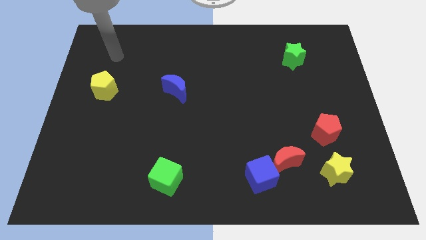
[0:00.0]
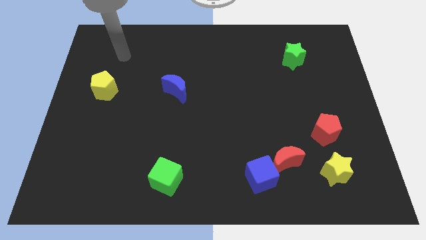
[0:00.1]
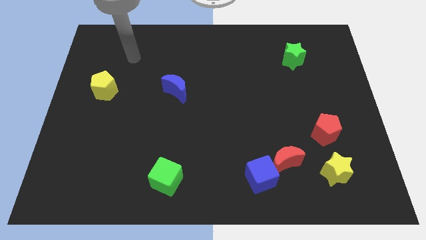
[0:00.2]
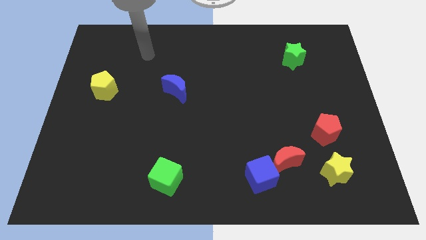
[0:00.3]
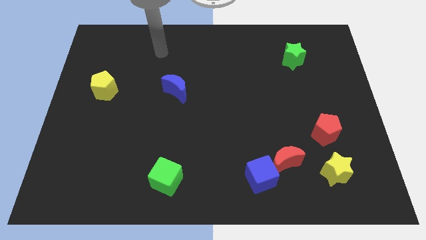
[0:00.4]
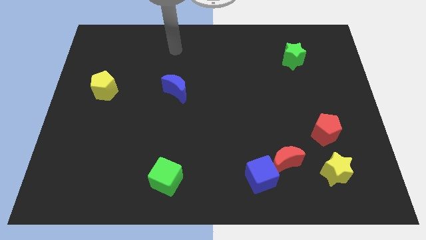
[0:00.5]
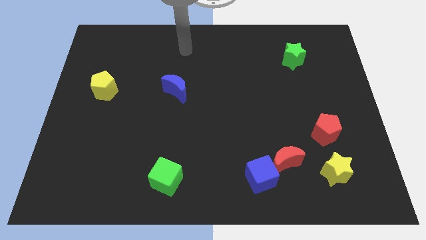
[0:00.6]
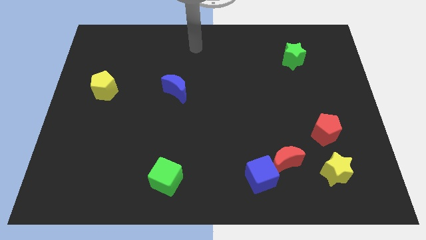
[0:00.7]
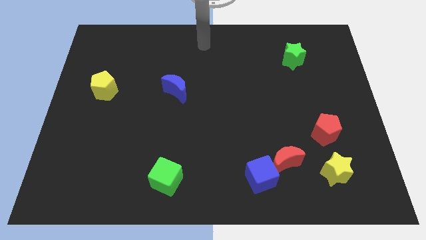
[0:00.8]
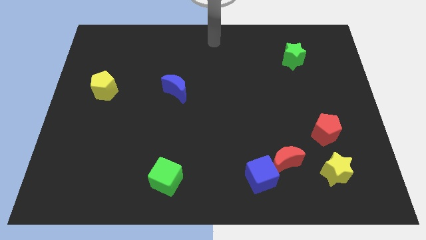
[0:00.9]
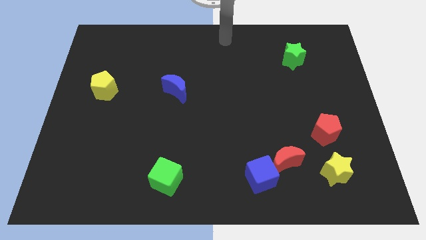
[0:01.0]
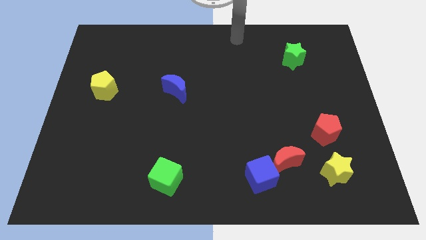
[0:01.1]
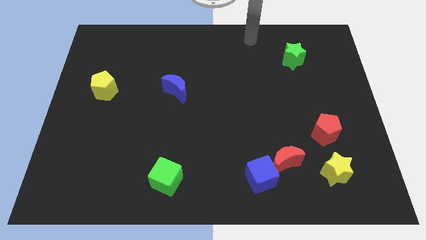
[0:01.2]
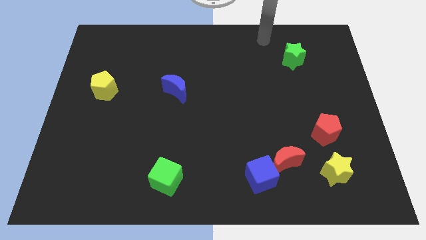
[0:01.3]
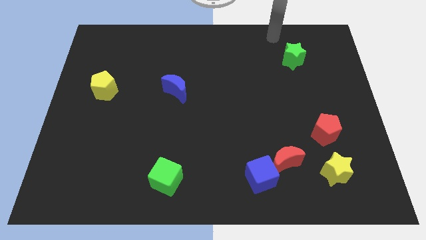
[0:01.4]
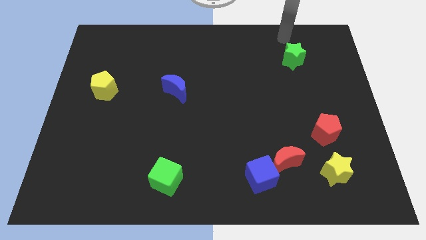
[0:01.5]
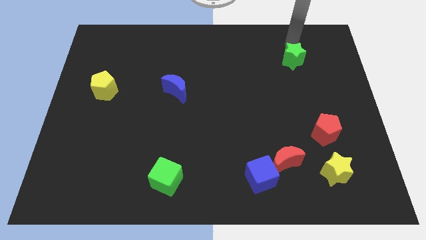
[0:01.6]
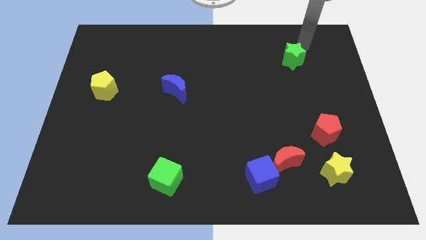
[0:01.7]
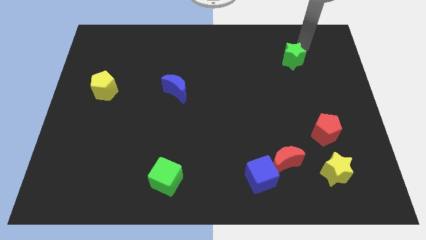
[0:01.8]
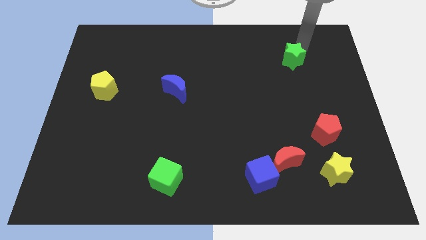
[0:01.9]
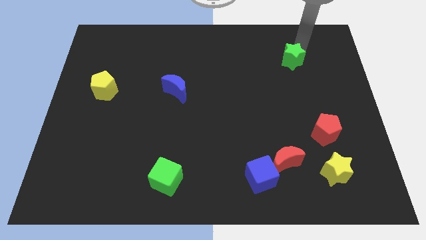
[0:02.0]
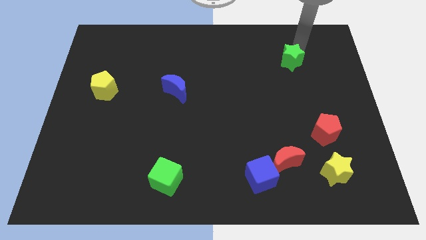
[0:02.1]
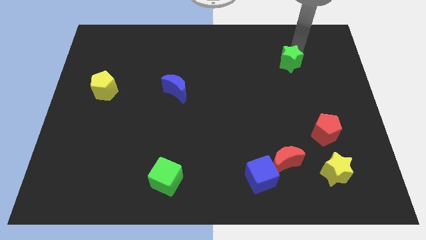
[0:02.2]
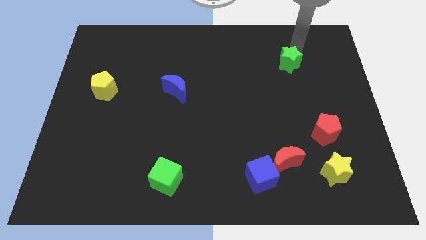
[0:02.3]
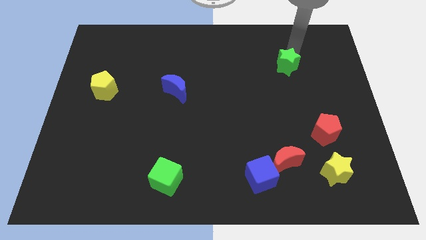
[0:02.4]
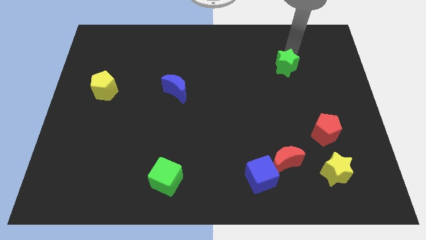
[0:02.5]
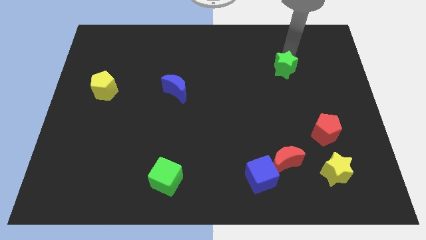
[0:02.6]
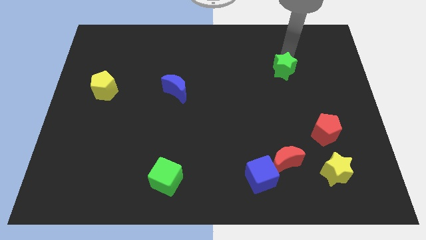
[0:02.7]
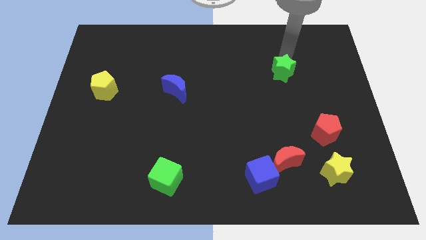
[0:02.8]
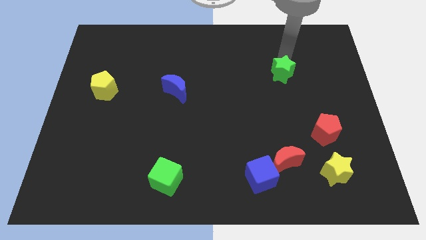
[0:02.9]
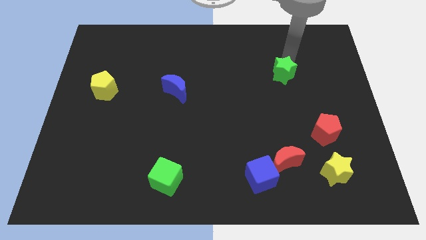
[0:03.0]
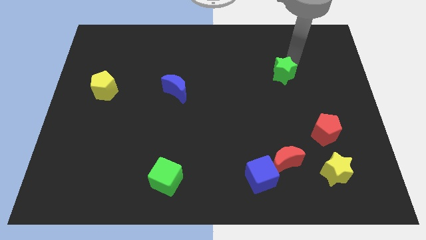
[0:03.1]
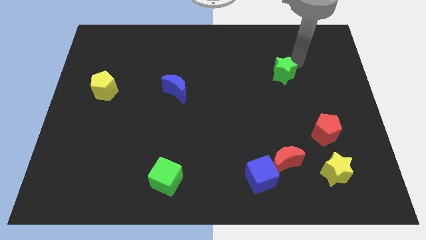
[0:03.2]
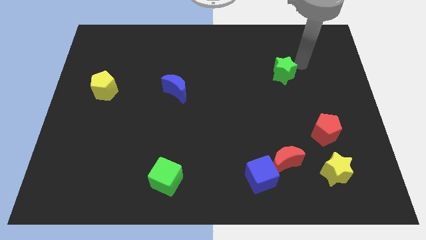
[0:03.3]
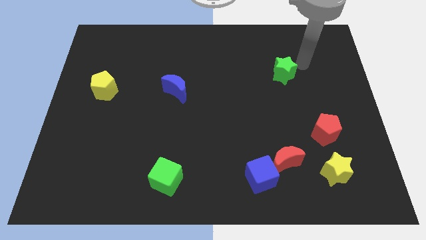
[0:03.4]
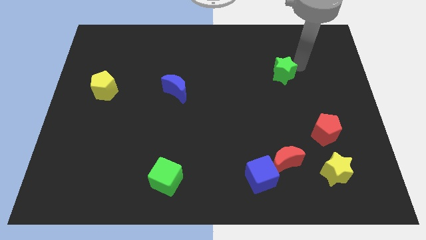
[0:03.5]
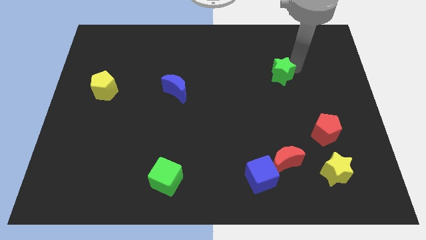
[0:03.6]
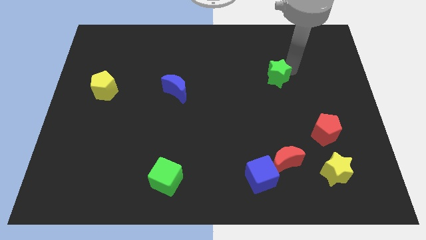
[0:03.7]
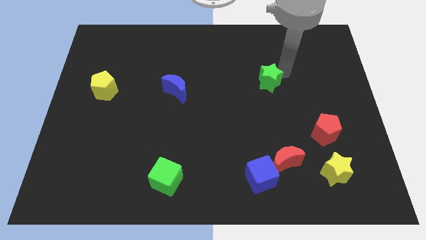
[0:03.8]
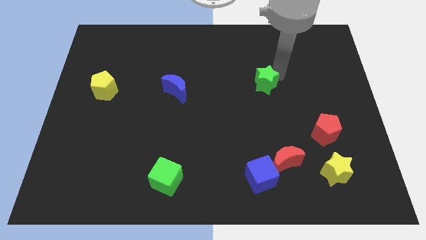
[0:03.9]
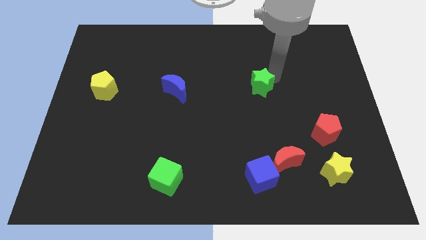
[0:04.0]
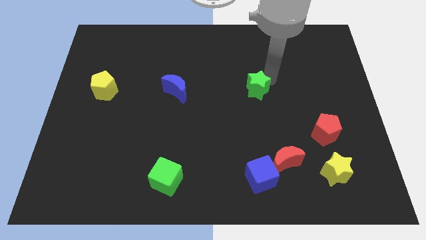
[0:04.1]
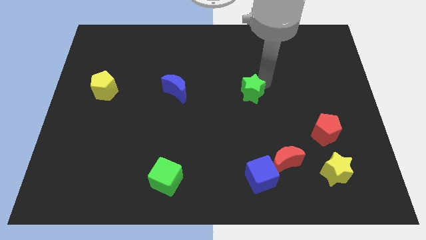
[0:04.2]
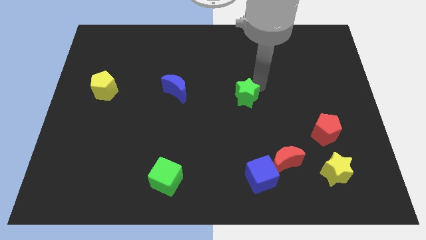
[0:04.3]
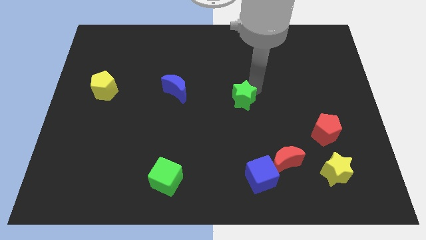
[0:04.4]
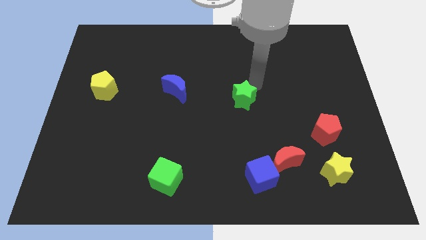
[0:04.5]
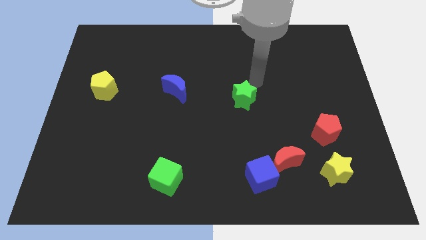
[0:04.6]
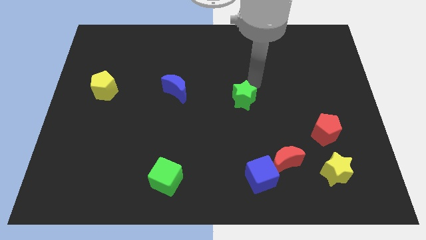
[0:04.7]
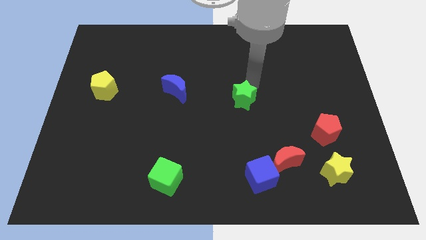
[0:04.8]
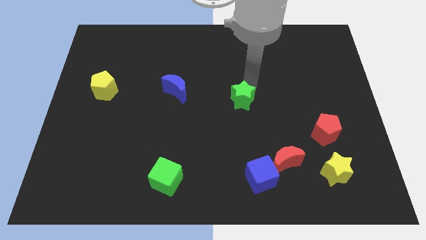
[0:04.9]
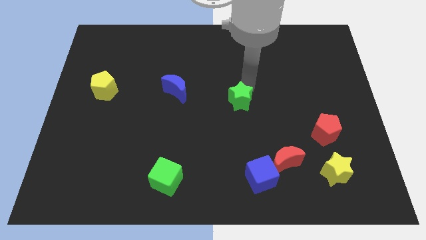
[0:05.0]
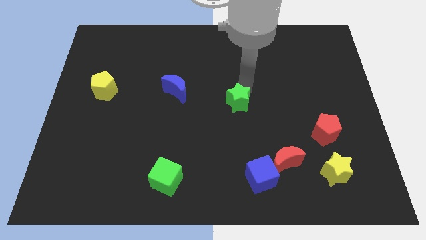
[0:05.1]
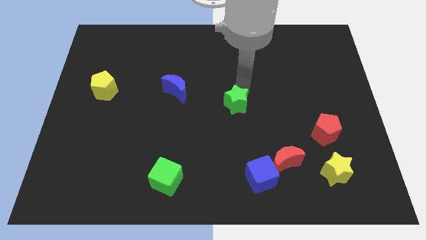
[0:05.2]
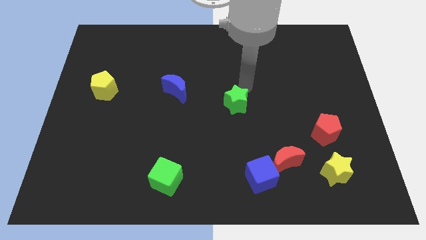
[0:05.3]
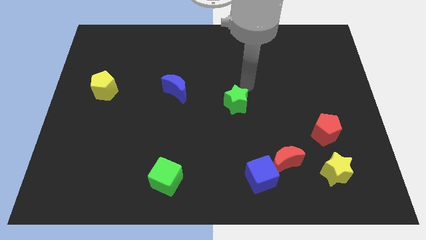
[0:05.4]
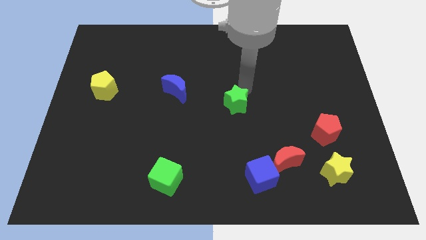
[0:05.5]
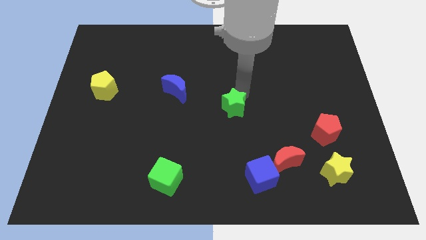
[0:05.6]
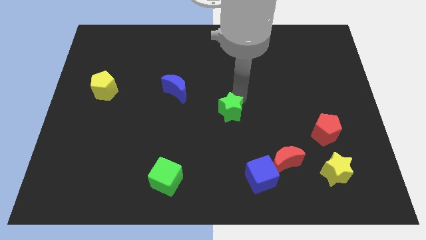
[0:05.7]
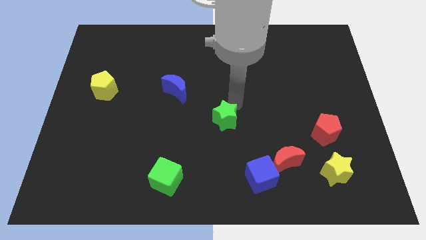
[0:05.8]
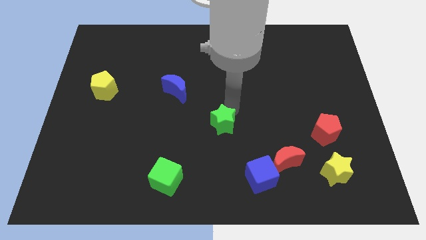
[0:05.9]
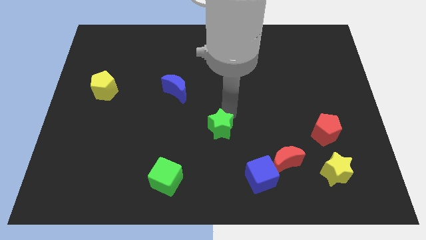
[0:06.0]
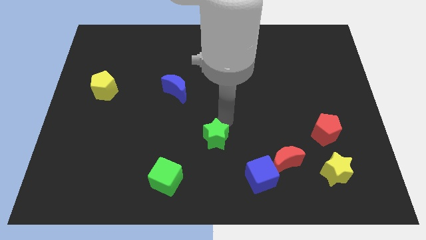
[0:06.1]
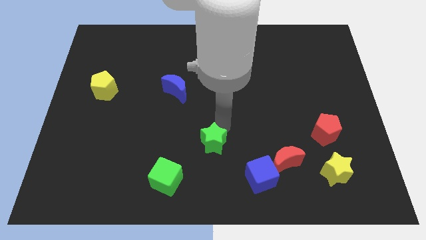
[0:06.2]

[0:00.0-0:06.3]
put the green star to the top right side of the green cube

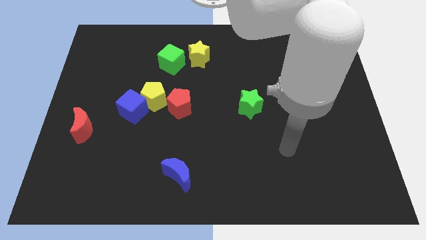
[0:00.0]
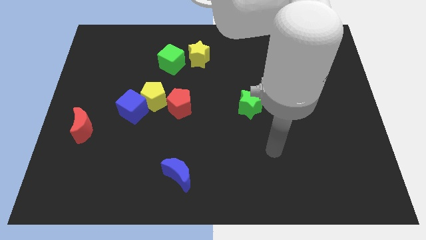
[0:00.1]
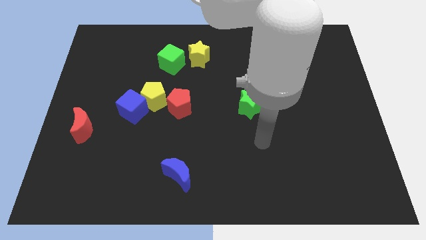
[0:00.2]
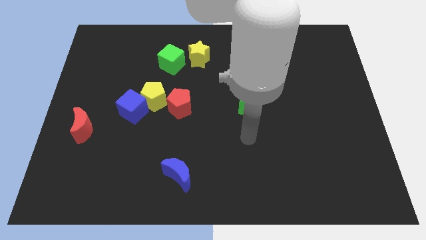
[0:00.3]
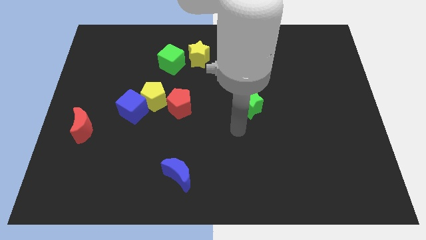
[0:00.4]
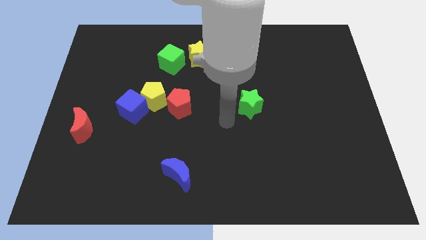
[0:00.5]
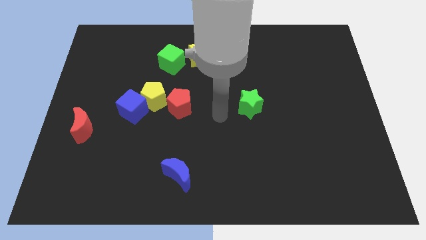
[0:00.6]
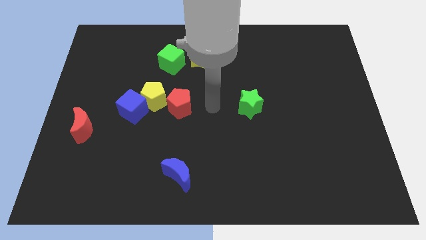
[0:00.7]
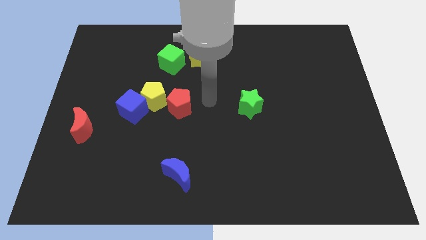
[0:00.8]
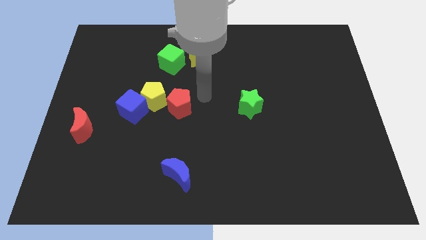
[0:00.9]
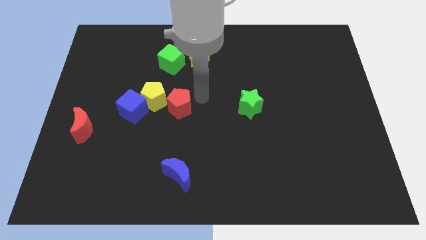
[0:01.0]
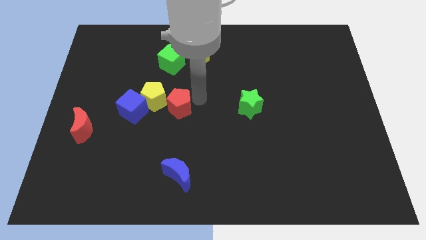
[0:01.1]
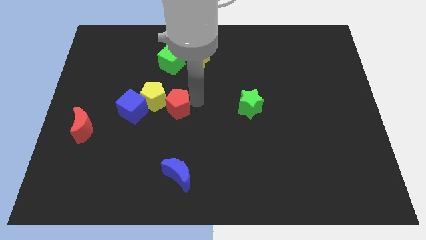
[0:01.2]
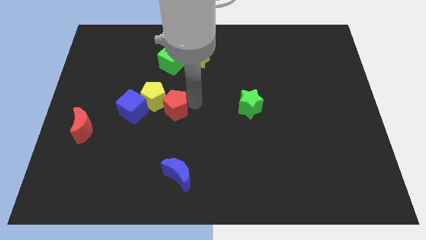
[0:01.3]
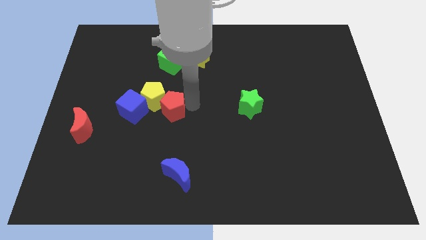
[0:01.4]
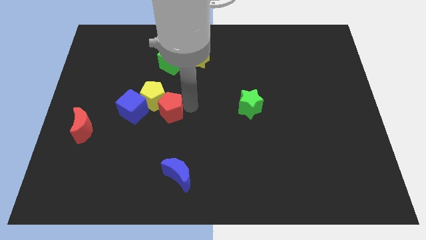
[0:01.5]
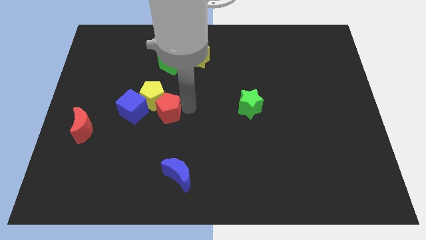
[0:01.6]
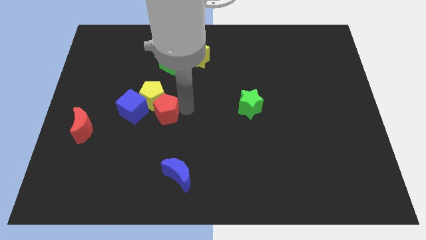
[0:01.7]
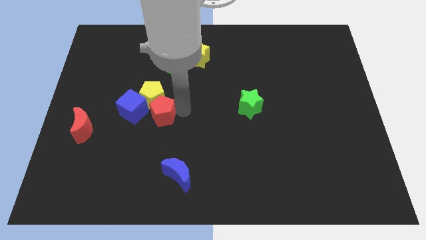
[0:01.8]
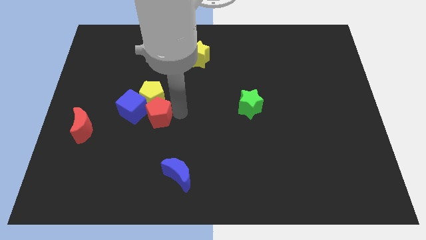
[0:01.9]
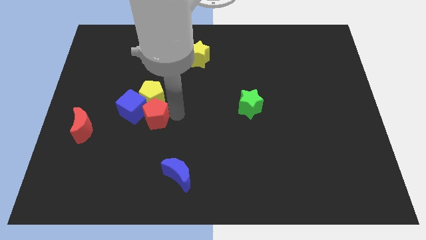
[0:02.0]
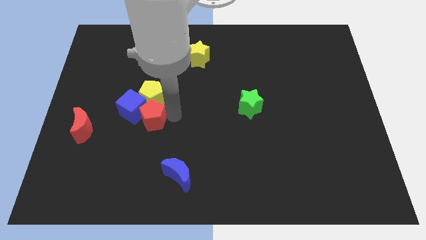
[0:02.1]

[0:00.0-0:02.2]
push the red pentagon to the right side of the red moon
